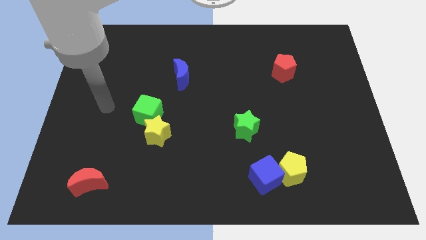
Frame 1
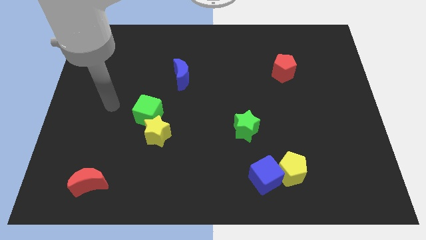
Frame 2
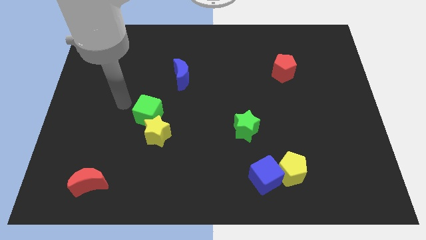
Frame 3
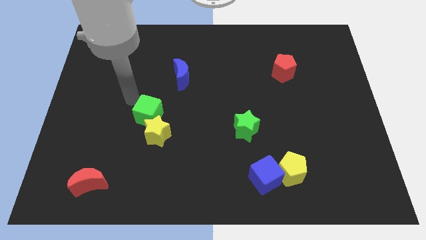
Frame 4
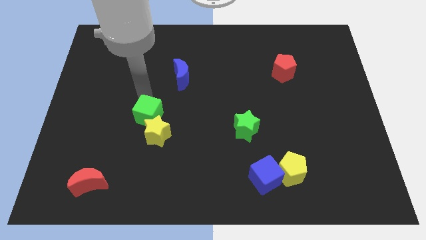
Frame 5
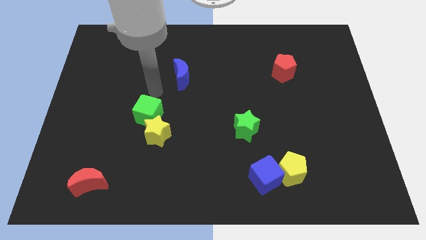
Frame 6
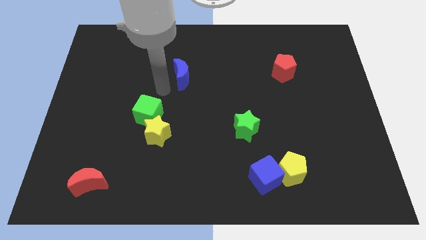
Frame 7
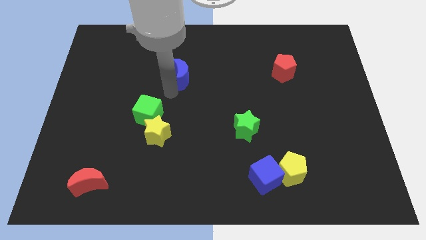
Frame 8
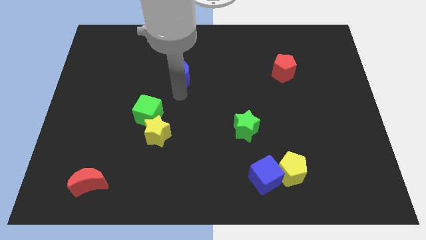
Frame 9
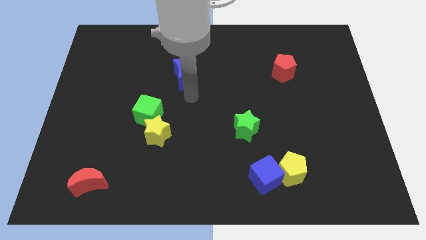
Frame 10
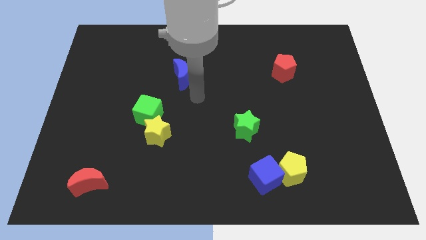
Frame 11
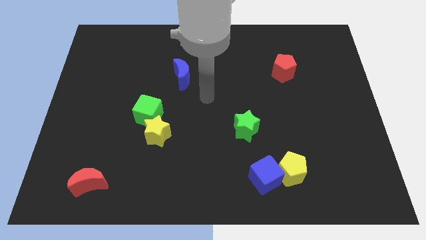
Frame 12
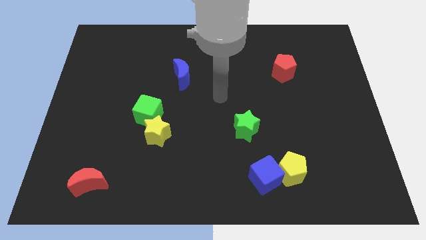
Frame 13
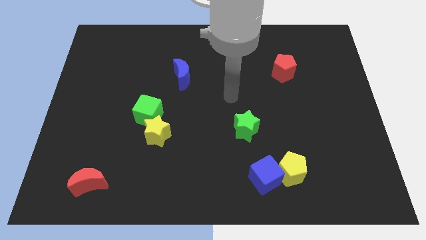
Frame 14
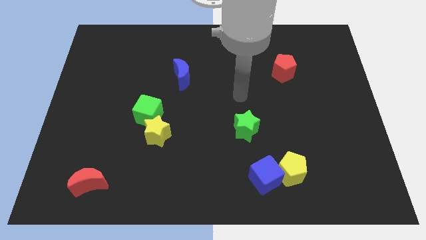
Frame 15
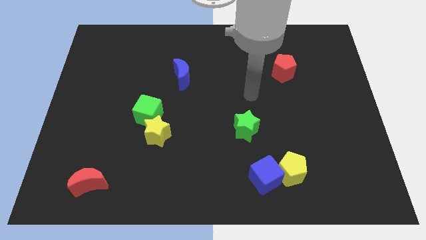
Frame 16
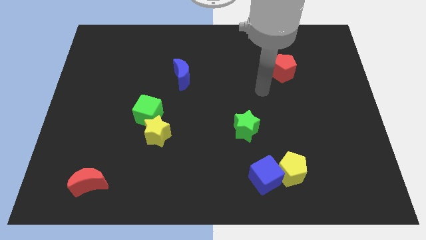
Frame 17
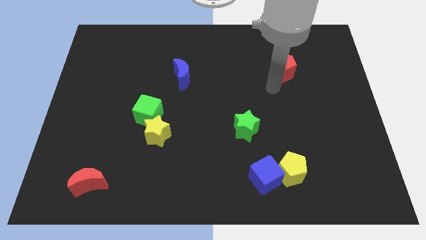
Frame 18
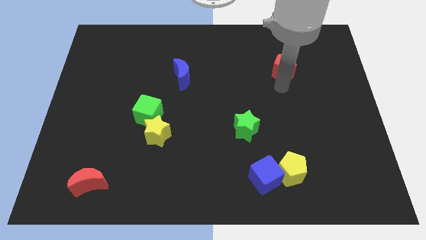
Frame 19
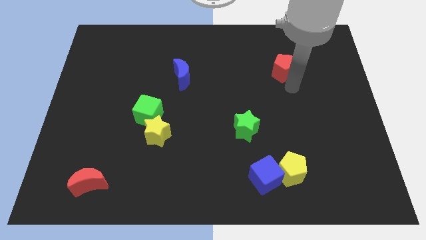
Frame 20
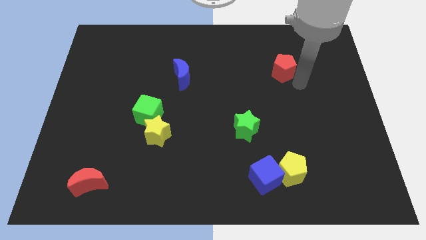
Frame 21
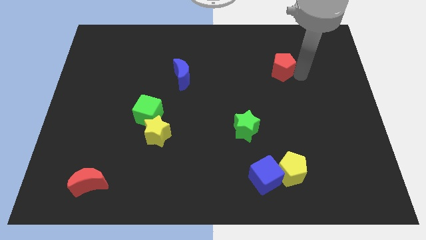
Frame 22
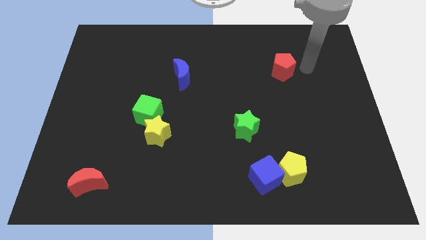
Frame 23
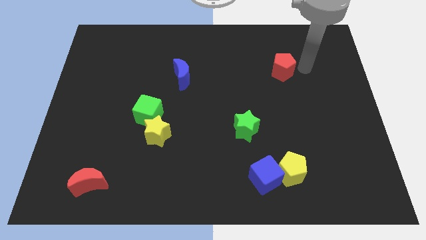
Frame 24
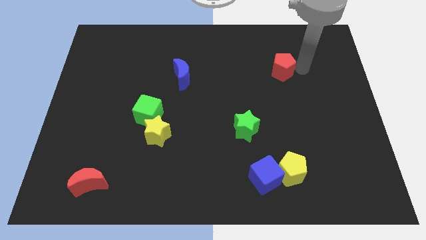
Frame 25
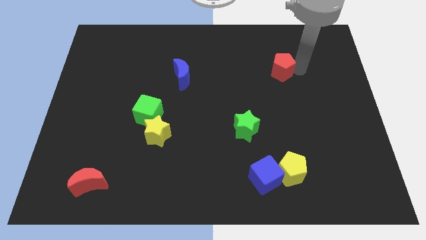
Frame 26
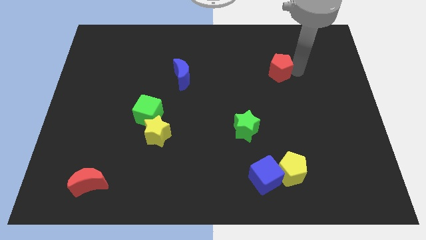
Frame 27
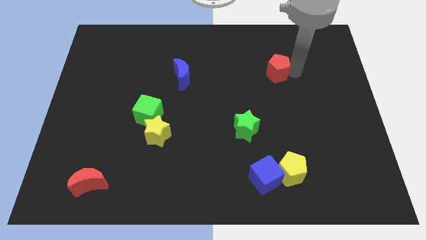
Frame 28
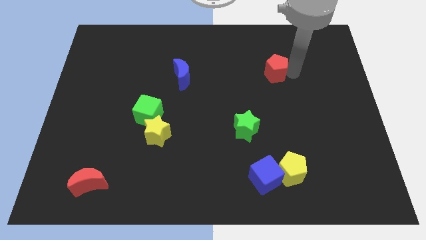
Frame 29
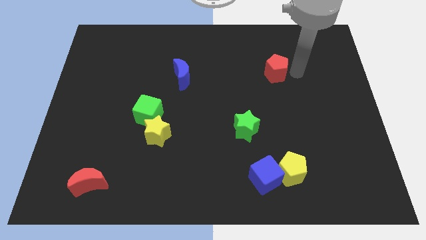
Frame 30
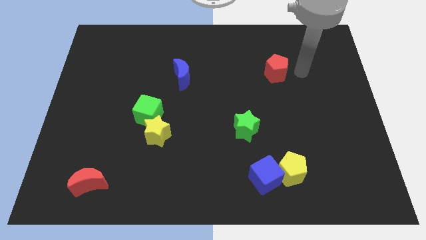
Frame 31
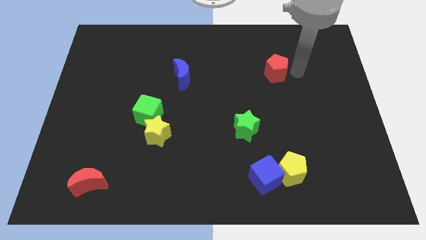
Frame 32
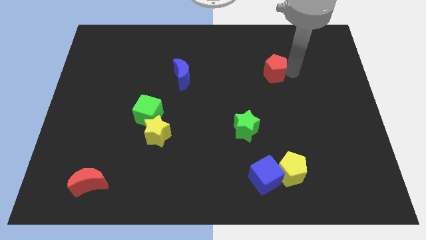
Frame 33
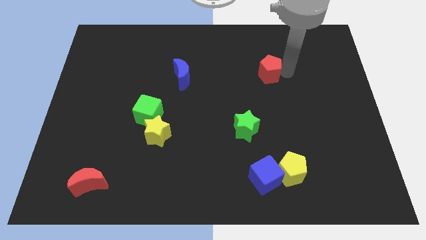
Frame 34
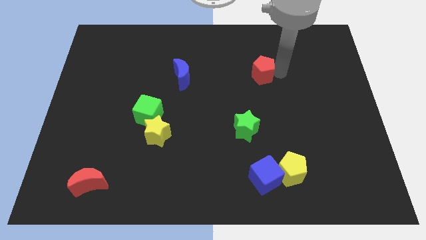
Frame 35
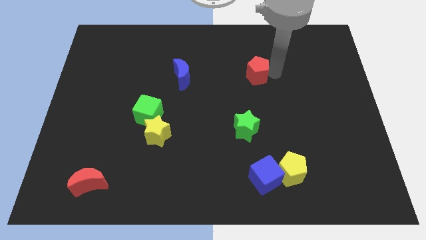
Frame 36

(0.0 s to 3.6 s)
slide the red pentagon left a bit

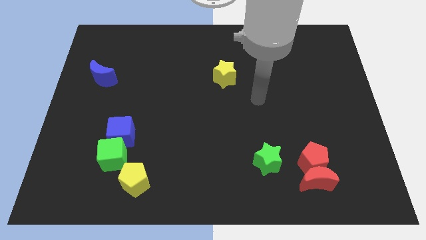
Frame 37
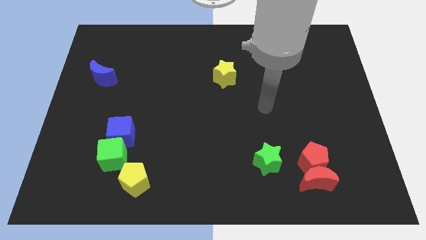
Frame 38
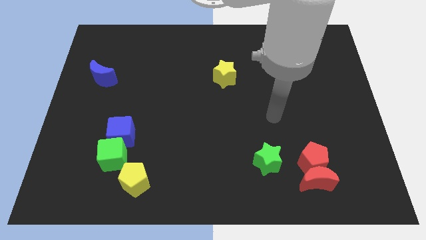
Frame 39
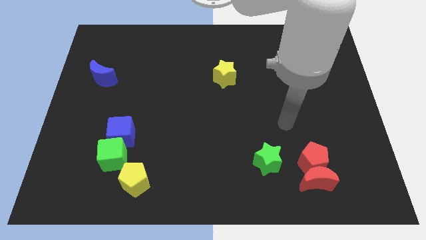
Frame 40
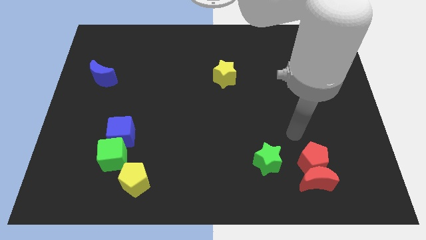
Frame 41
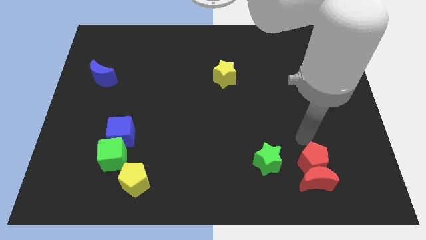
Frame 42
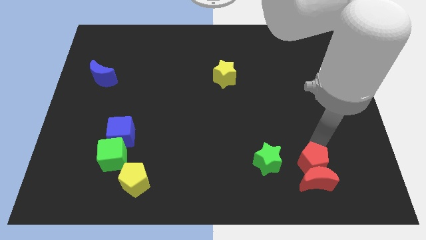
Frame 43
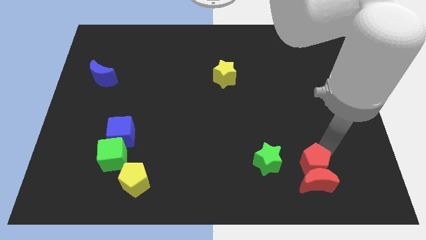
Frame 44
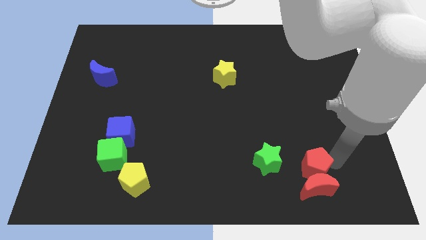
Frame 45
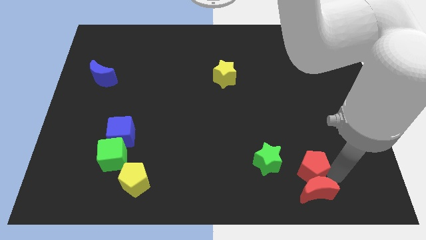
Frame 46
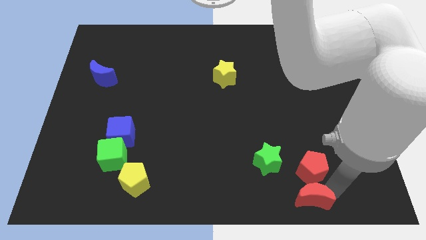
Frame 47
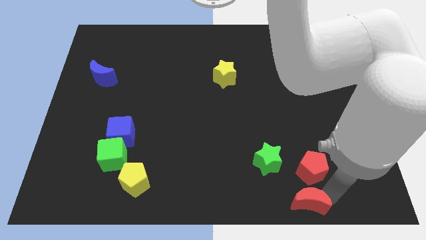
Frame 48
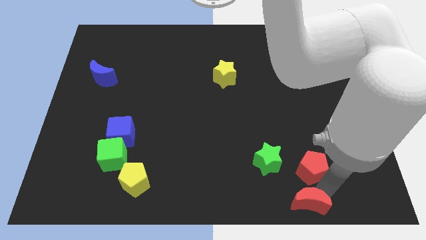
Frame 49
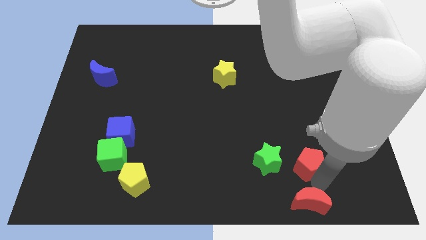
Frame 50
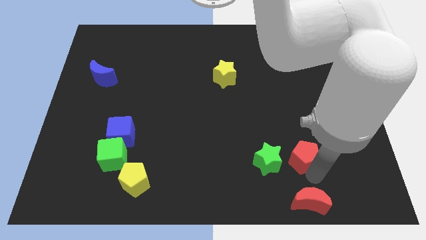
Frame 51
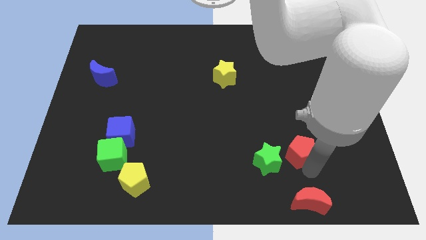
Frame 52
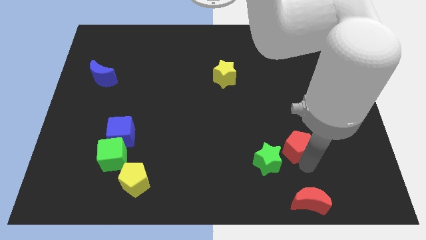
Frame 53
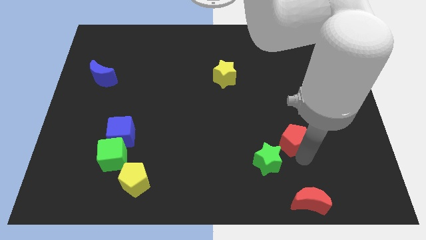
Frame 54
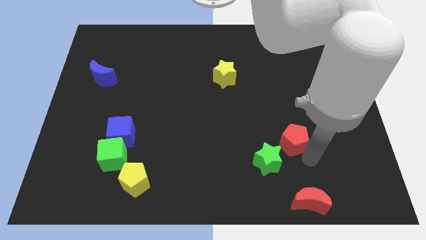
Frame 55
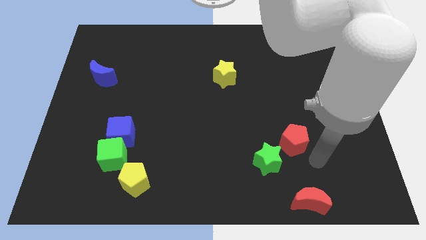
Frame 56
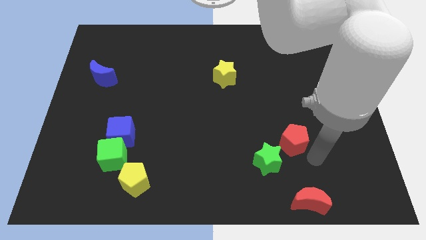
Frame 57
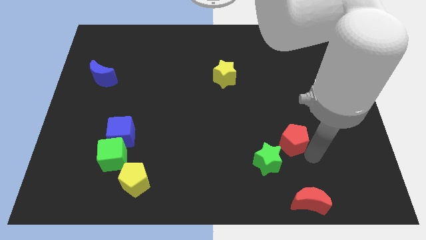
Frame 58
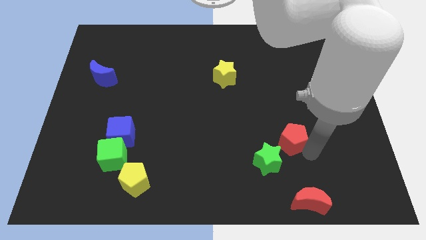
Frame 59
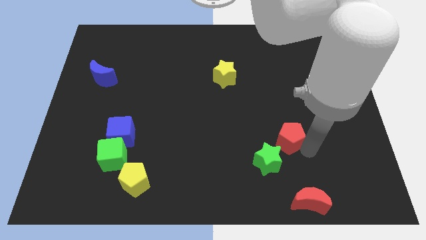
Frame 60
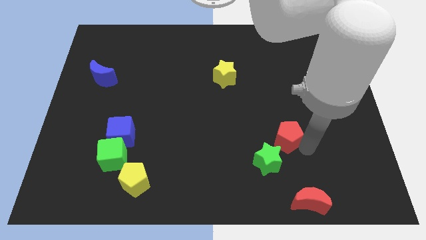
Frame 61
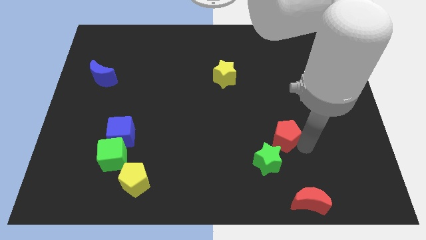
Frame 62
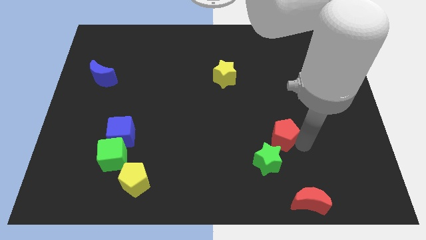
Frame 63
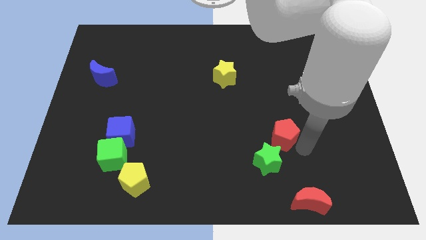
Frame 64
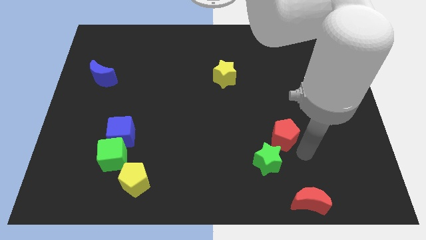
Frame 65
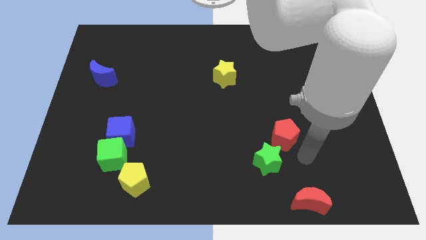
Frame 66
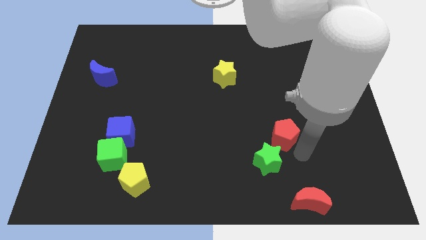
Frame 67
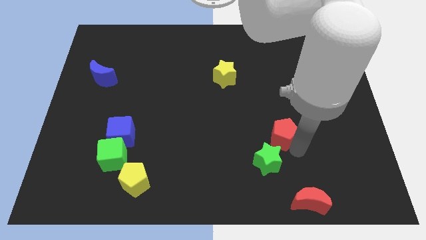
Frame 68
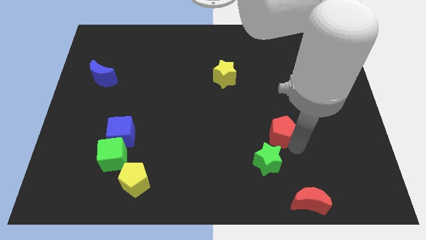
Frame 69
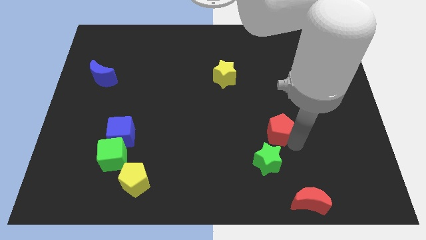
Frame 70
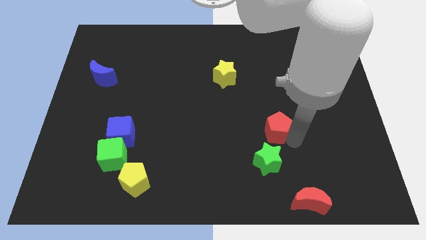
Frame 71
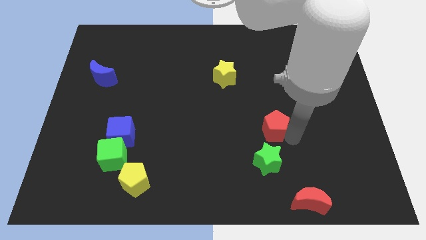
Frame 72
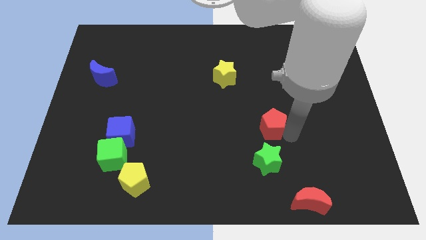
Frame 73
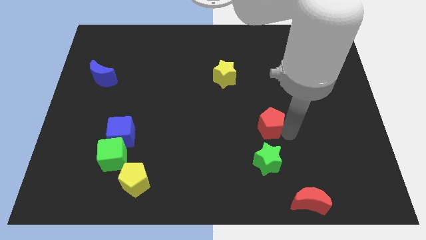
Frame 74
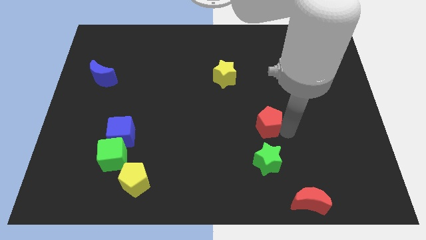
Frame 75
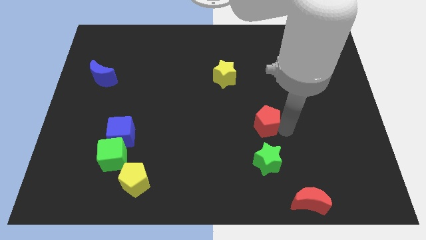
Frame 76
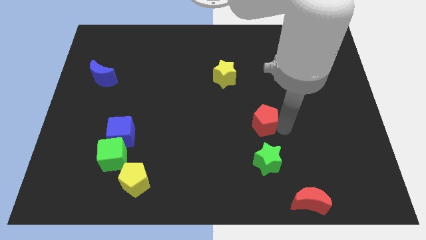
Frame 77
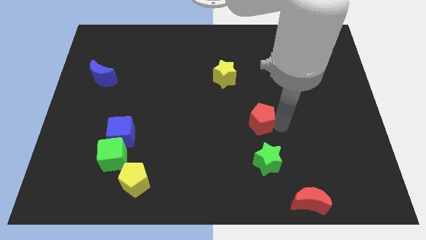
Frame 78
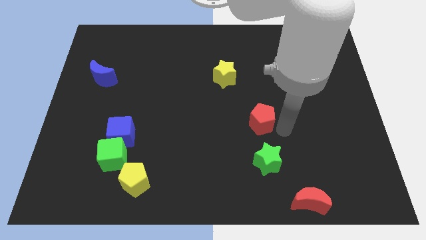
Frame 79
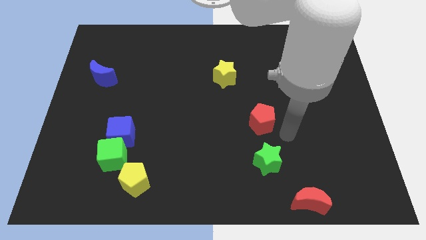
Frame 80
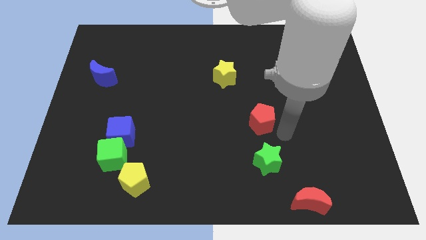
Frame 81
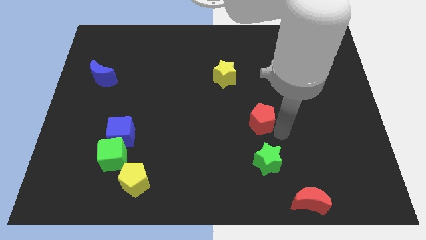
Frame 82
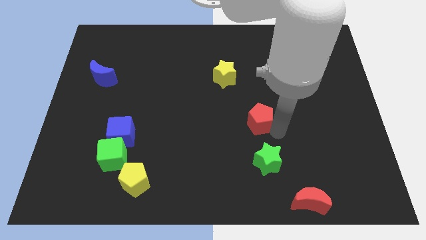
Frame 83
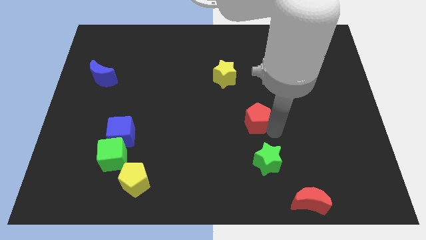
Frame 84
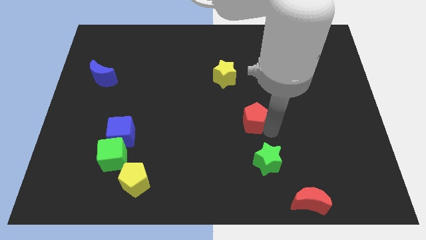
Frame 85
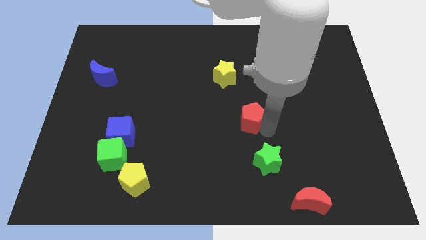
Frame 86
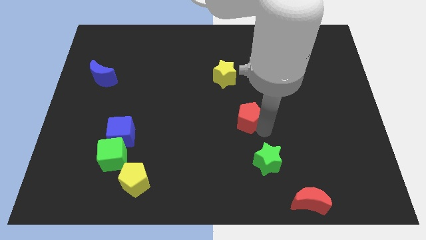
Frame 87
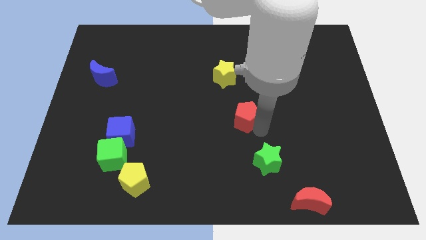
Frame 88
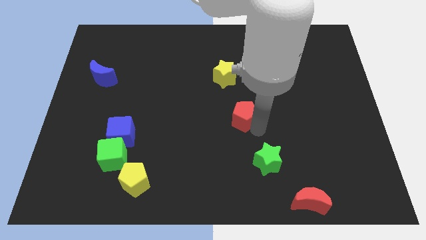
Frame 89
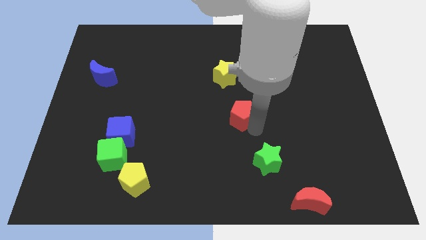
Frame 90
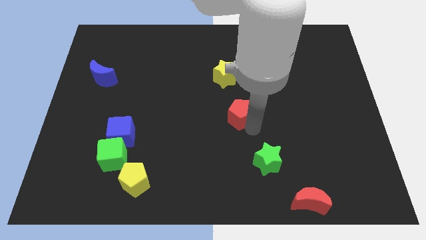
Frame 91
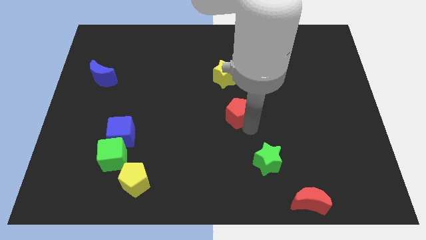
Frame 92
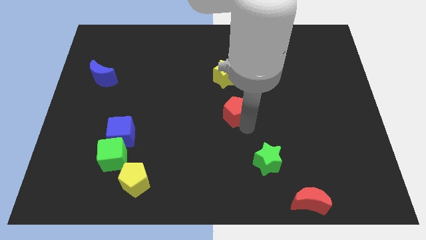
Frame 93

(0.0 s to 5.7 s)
slide the red pentagon up and to the left diagonally
